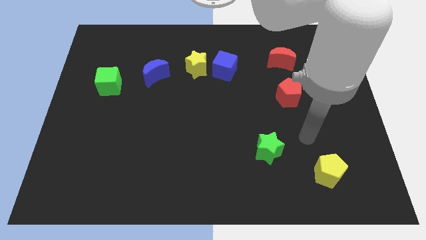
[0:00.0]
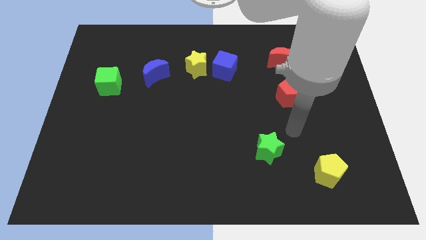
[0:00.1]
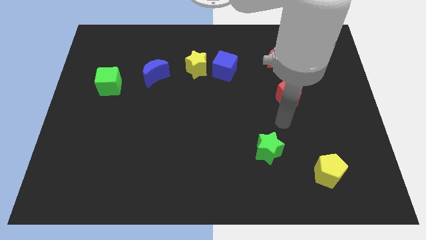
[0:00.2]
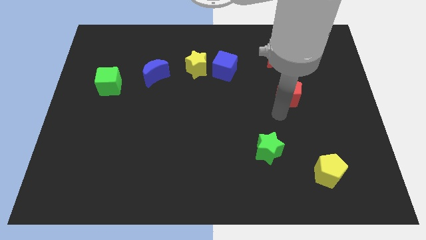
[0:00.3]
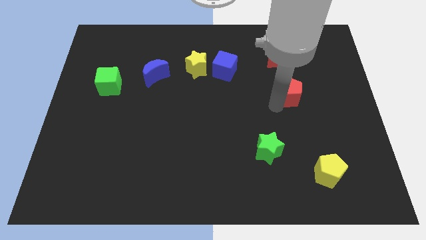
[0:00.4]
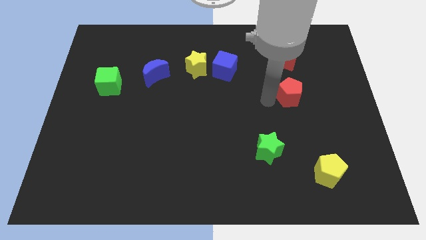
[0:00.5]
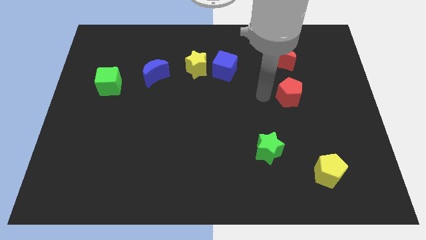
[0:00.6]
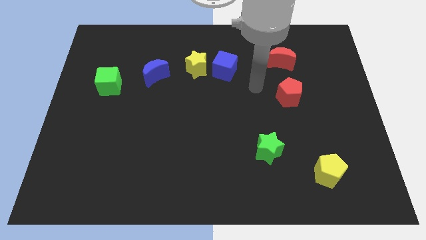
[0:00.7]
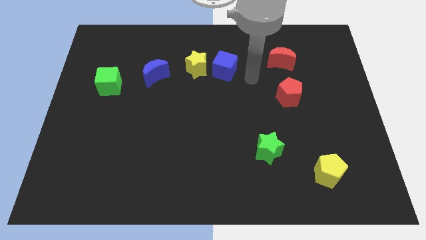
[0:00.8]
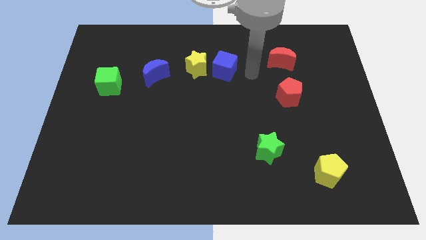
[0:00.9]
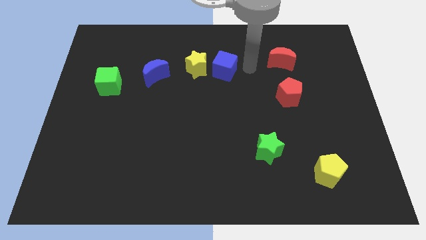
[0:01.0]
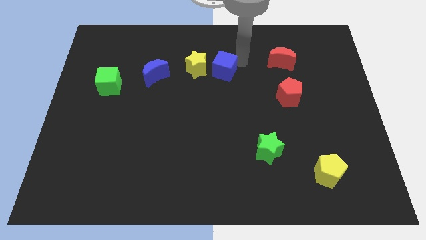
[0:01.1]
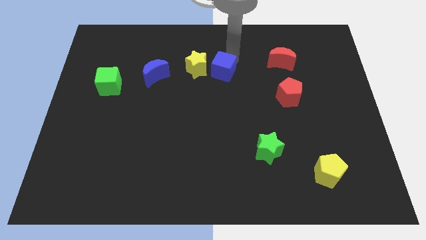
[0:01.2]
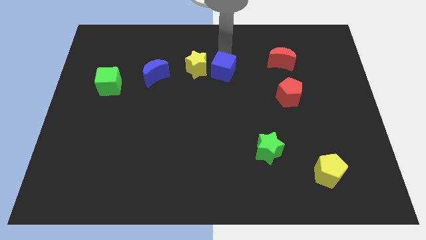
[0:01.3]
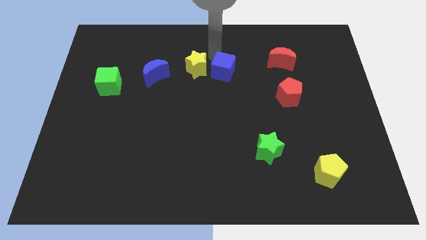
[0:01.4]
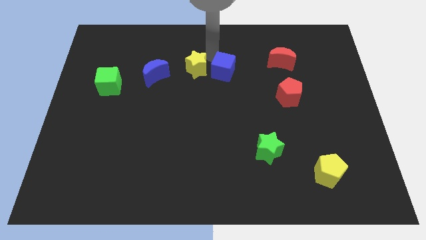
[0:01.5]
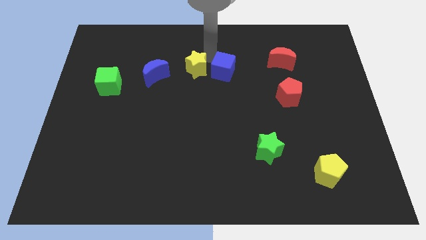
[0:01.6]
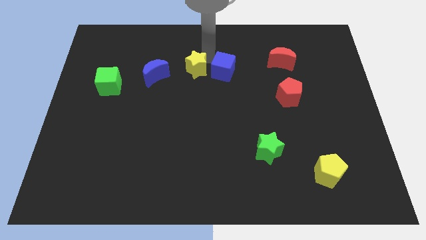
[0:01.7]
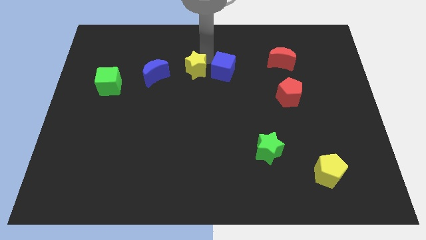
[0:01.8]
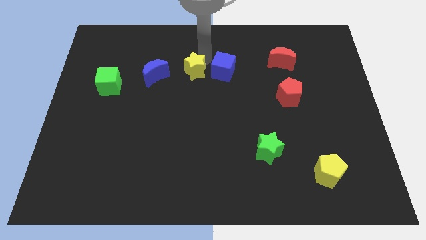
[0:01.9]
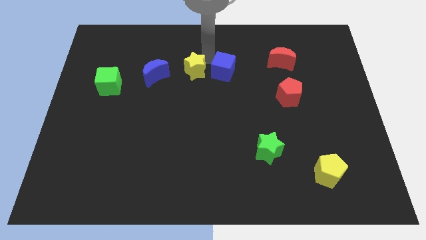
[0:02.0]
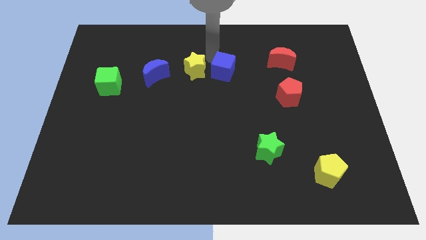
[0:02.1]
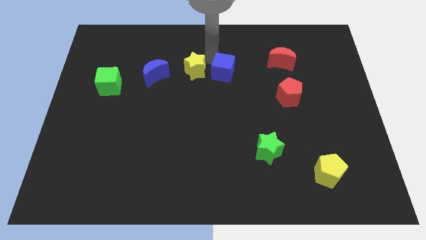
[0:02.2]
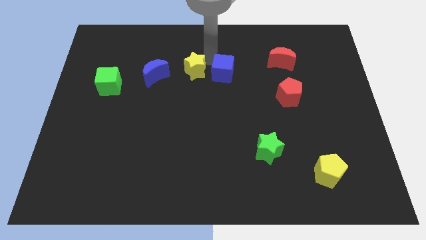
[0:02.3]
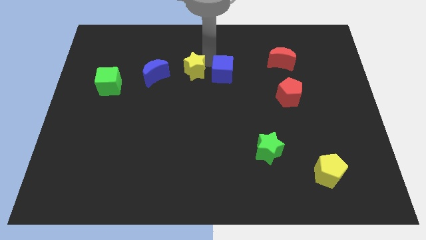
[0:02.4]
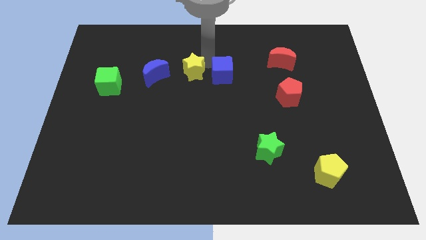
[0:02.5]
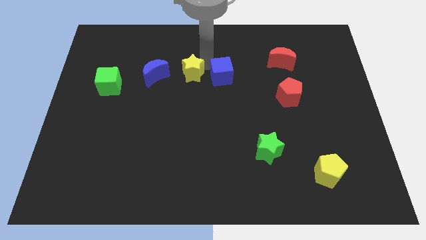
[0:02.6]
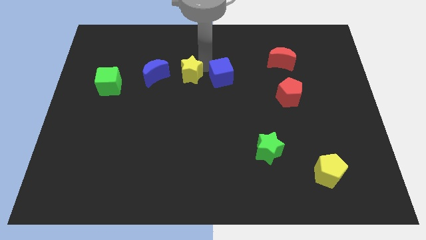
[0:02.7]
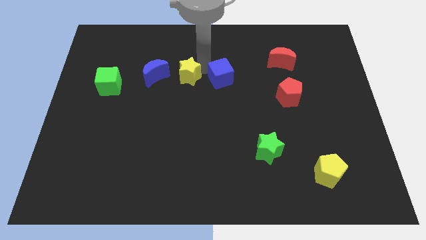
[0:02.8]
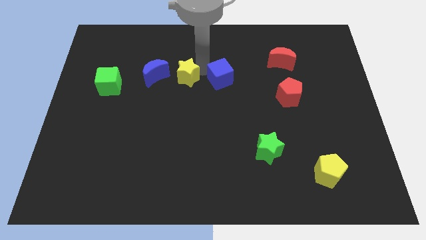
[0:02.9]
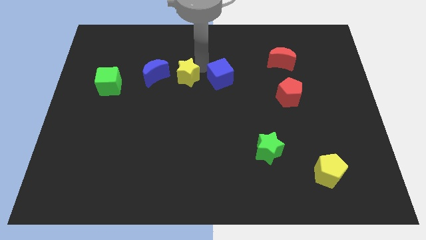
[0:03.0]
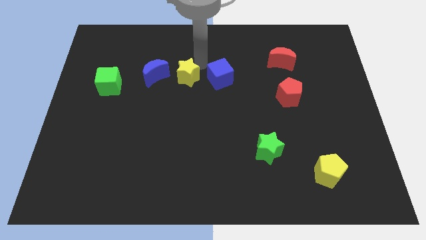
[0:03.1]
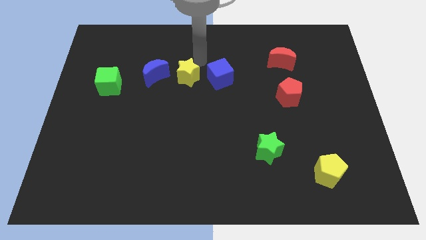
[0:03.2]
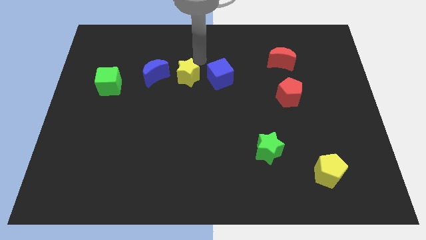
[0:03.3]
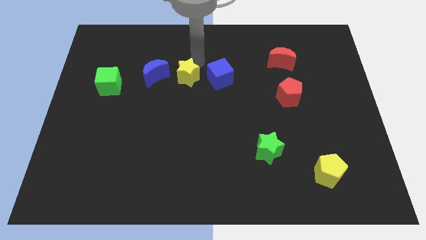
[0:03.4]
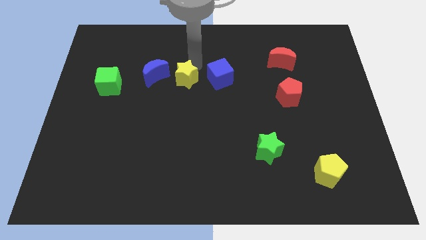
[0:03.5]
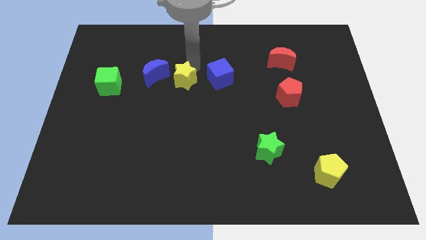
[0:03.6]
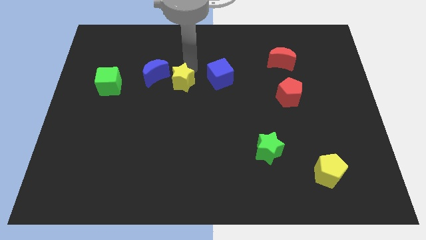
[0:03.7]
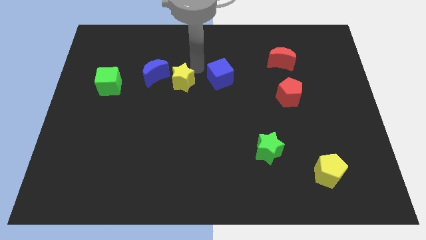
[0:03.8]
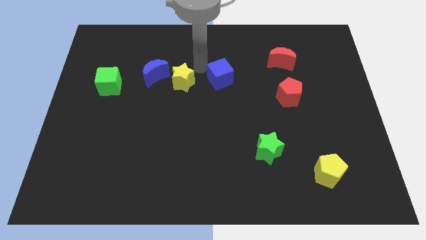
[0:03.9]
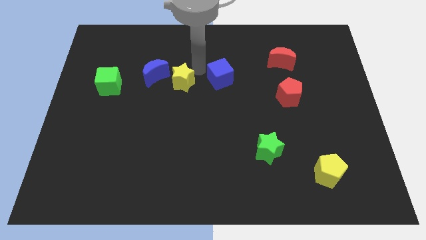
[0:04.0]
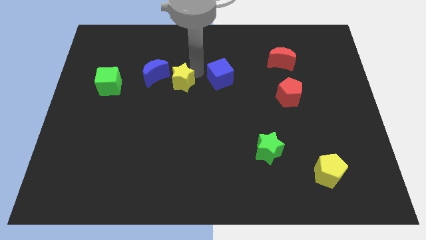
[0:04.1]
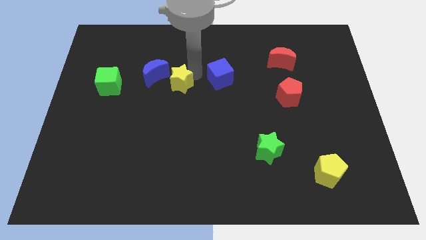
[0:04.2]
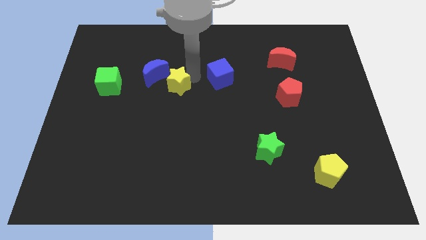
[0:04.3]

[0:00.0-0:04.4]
slightly move the yellow star downwards and then to the left

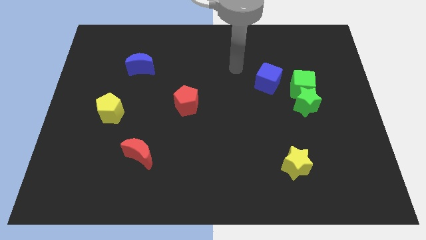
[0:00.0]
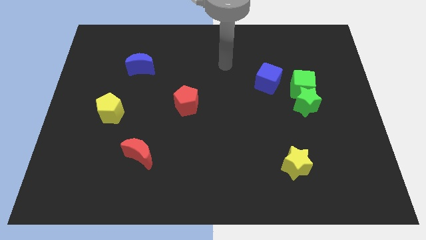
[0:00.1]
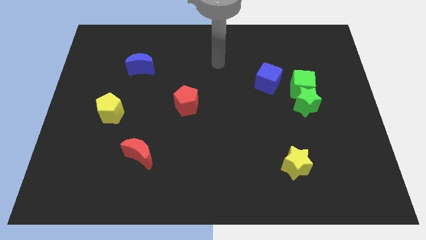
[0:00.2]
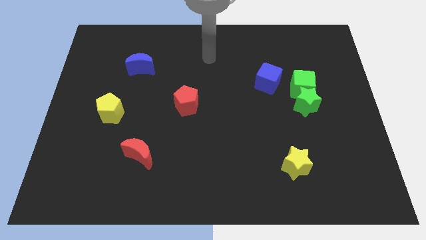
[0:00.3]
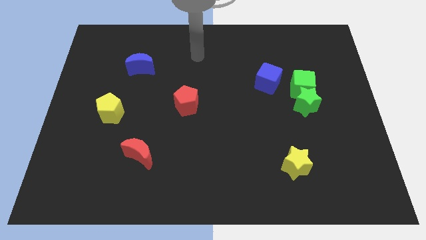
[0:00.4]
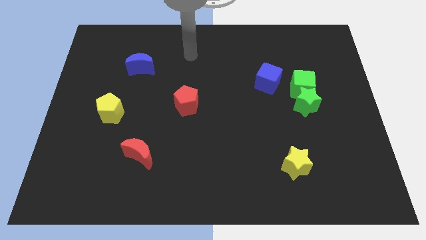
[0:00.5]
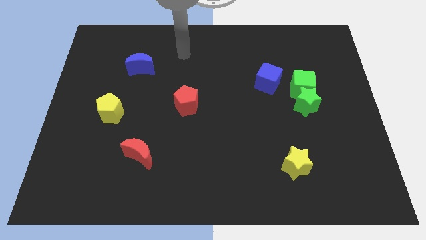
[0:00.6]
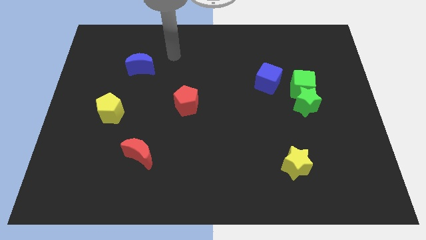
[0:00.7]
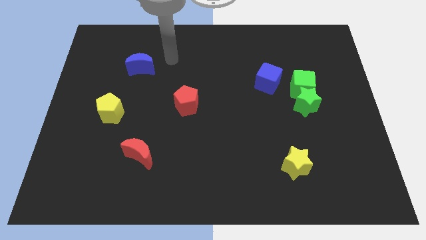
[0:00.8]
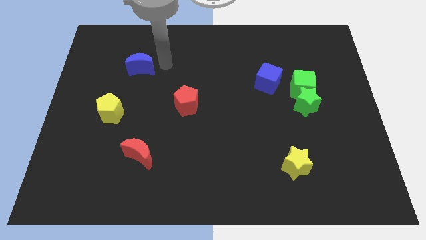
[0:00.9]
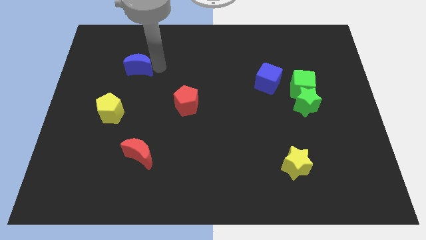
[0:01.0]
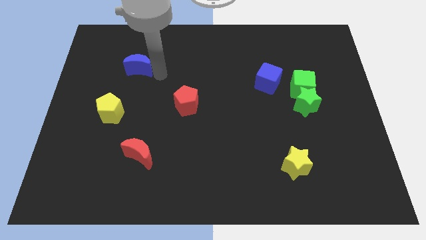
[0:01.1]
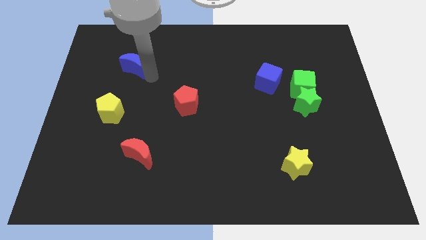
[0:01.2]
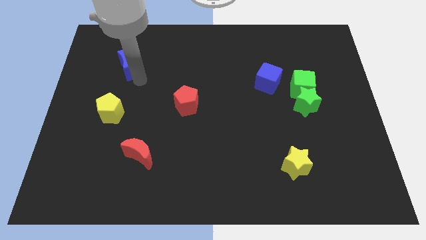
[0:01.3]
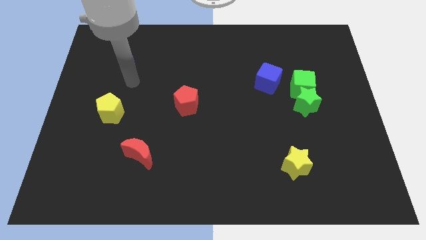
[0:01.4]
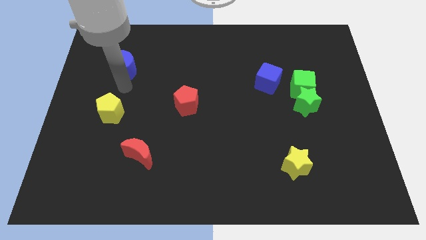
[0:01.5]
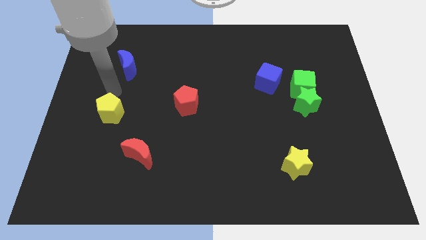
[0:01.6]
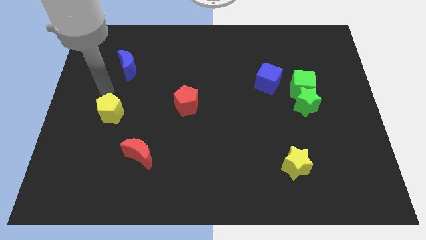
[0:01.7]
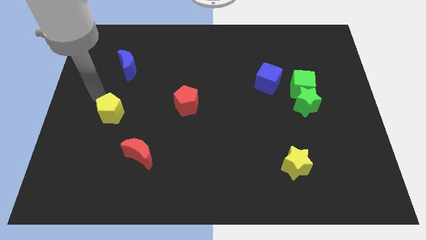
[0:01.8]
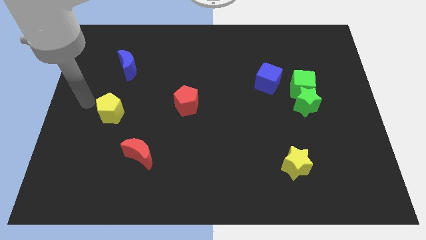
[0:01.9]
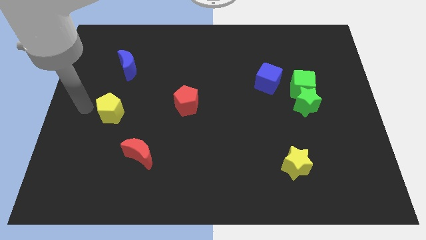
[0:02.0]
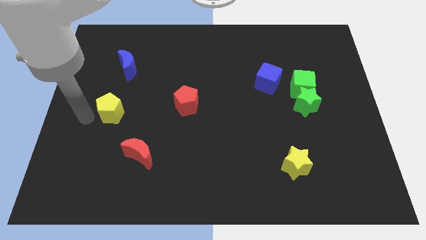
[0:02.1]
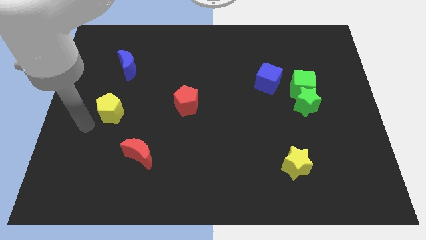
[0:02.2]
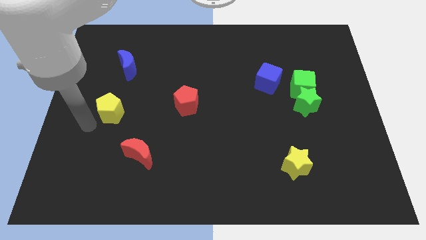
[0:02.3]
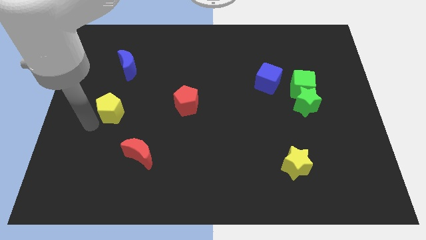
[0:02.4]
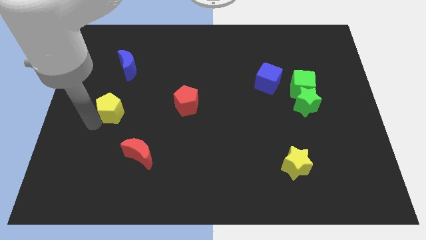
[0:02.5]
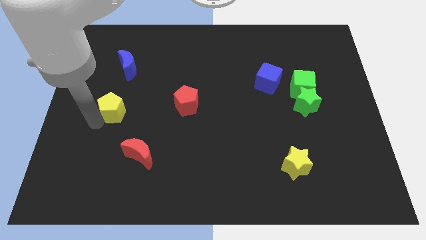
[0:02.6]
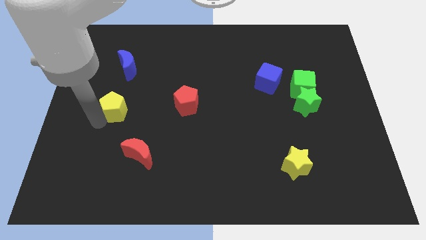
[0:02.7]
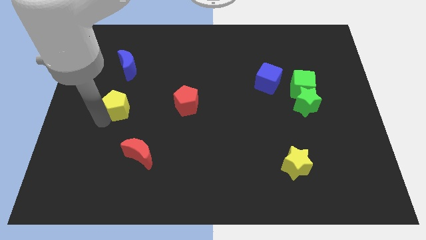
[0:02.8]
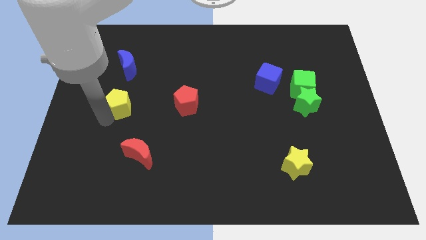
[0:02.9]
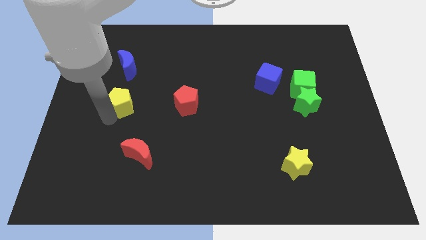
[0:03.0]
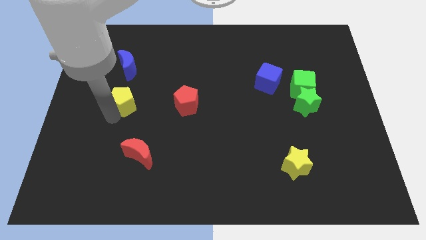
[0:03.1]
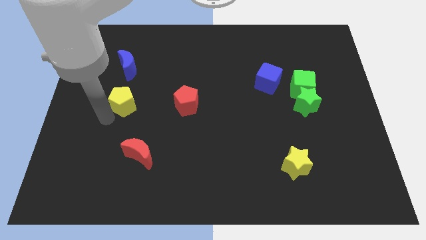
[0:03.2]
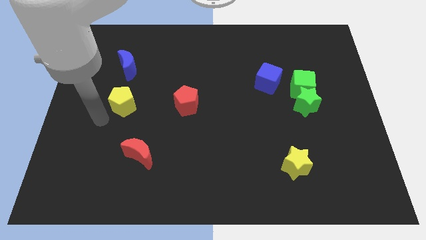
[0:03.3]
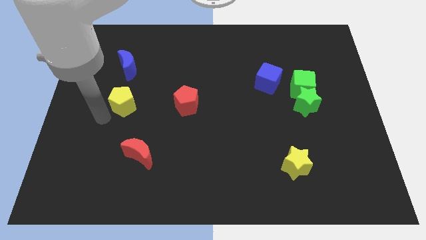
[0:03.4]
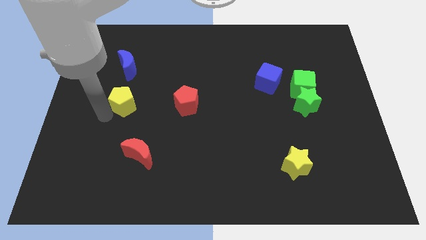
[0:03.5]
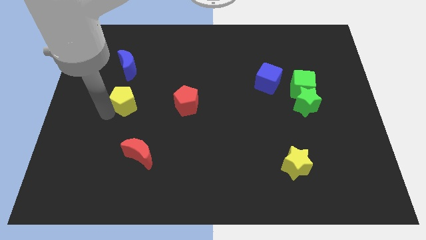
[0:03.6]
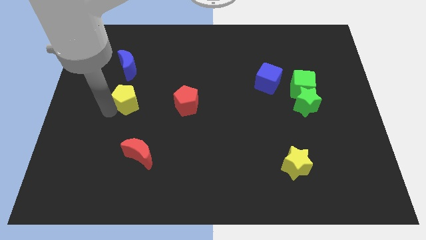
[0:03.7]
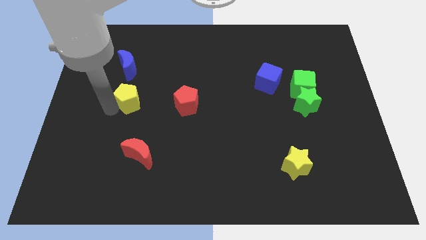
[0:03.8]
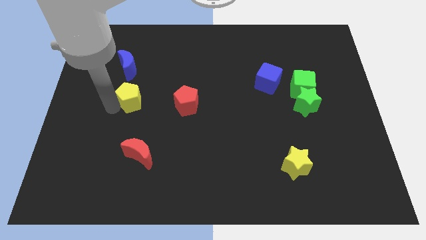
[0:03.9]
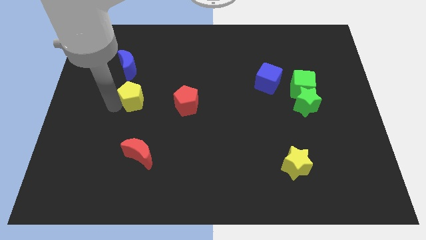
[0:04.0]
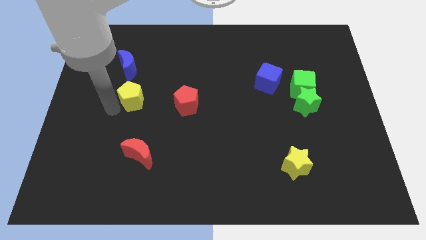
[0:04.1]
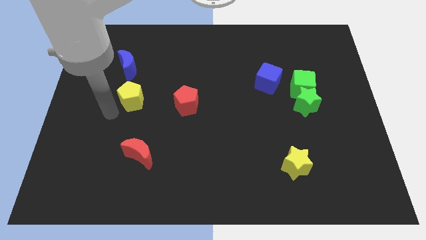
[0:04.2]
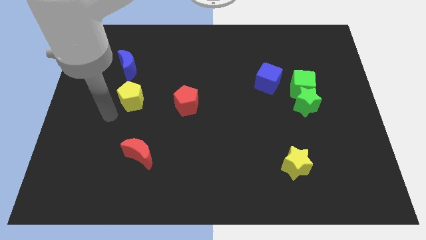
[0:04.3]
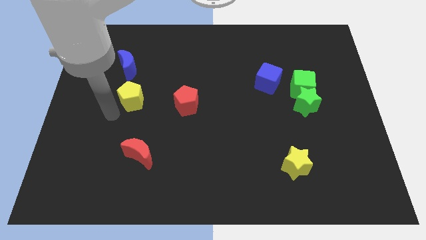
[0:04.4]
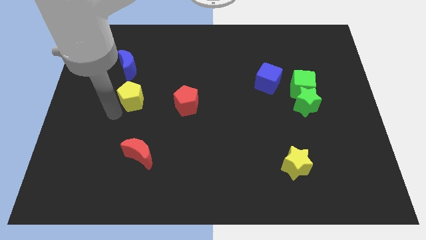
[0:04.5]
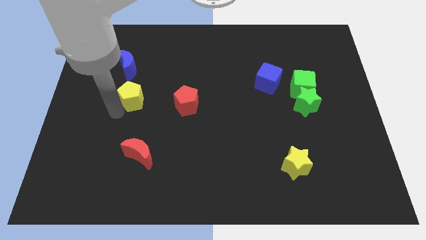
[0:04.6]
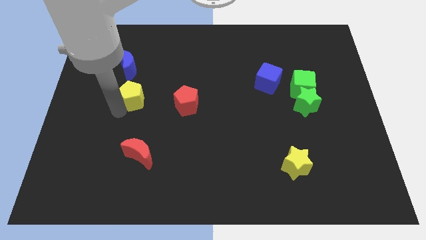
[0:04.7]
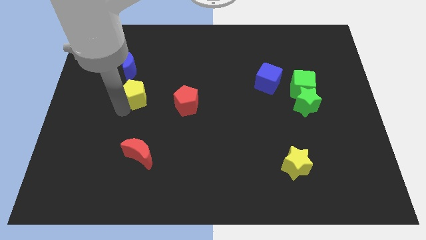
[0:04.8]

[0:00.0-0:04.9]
push the yellow pentagon a little diagonally upwards and right
